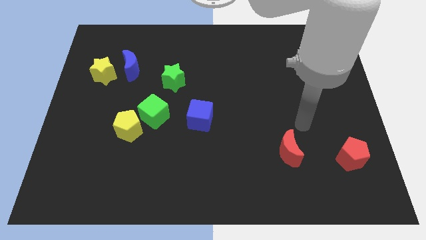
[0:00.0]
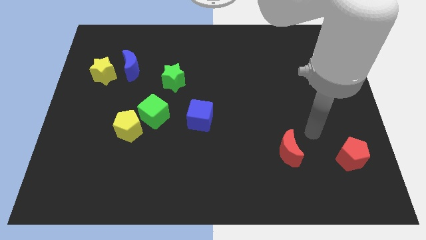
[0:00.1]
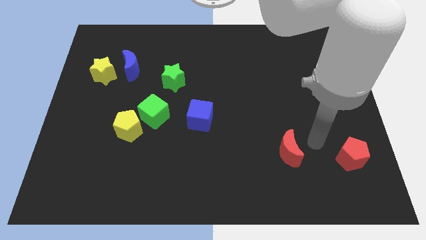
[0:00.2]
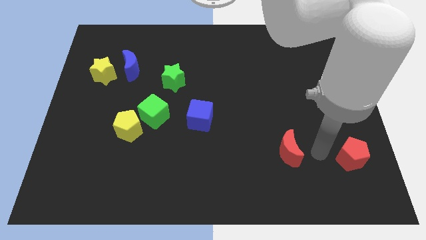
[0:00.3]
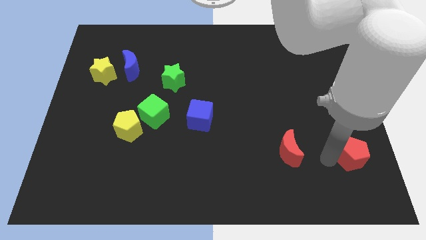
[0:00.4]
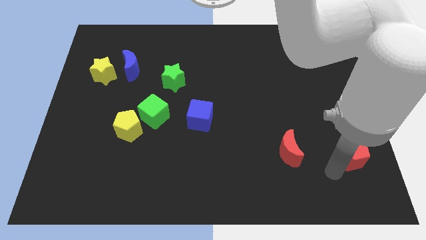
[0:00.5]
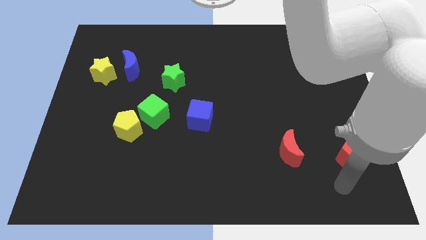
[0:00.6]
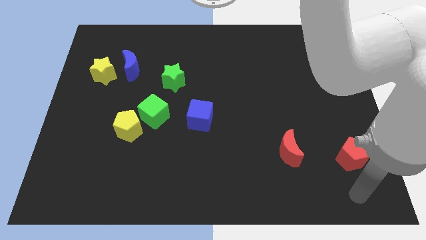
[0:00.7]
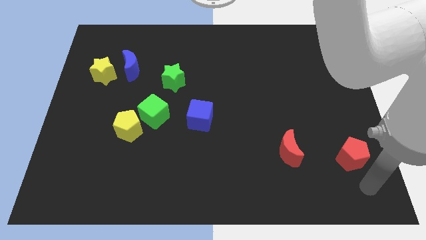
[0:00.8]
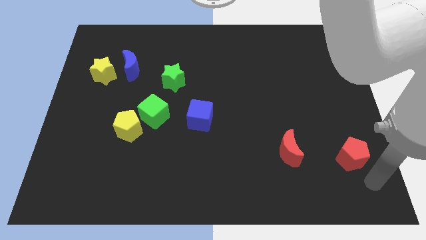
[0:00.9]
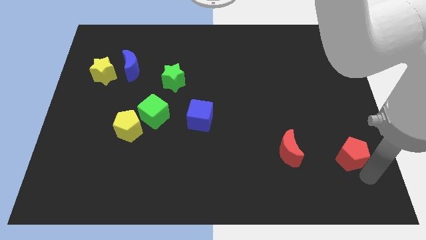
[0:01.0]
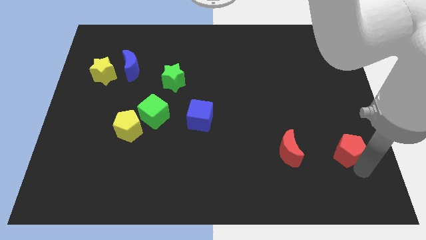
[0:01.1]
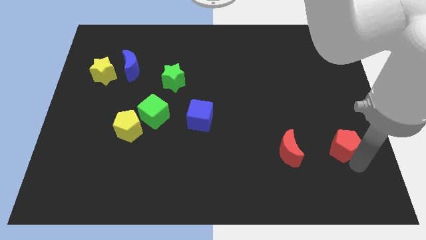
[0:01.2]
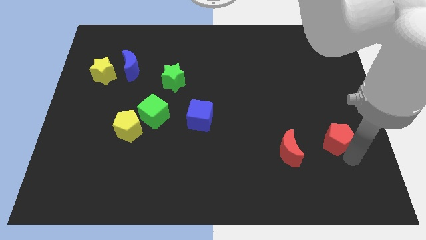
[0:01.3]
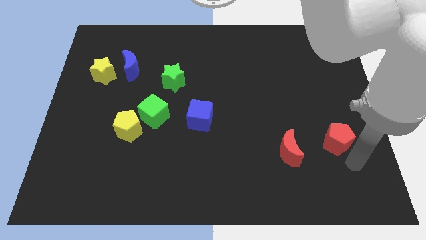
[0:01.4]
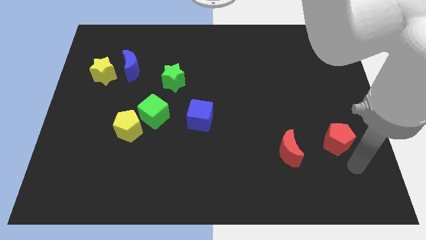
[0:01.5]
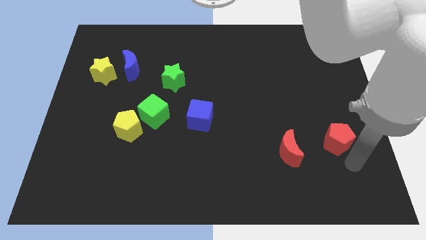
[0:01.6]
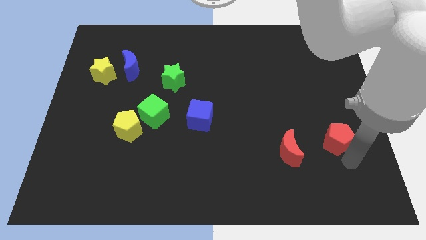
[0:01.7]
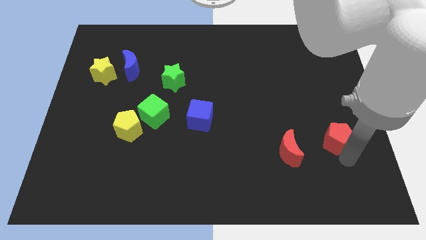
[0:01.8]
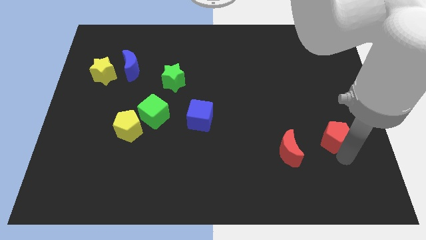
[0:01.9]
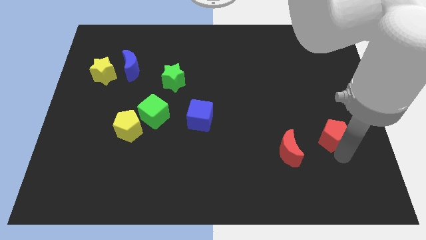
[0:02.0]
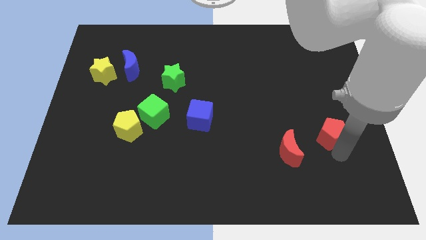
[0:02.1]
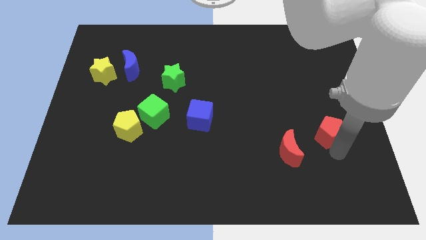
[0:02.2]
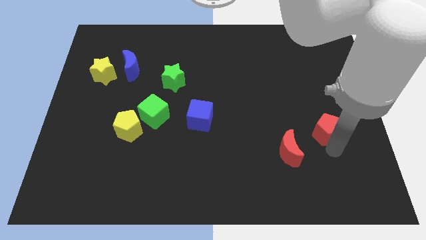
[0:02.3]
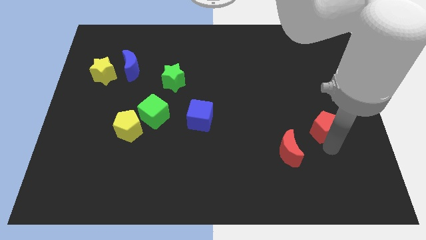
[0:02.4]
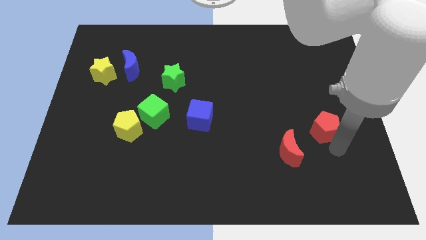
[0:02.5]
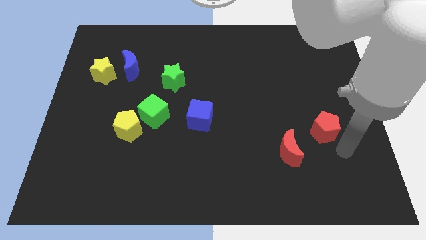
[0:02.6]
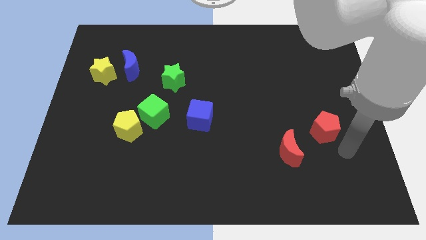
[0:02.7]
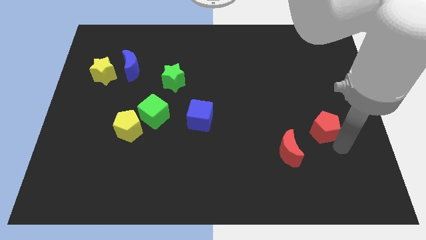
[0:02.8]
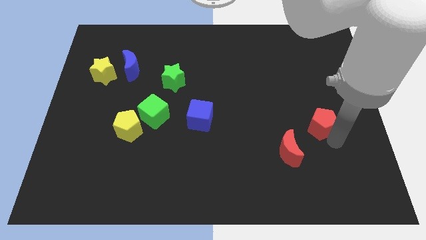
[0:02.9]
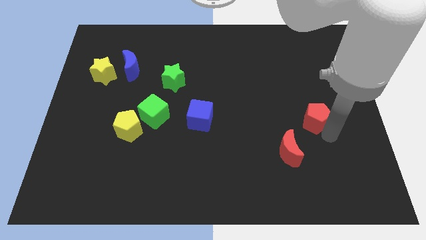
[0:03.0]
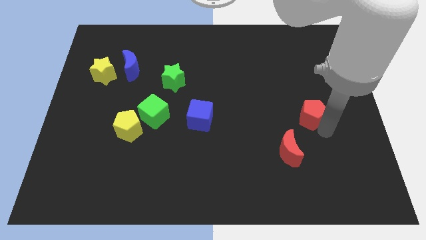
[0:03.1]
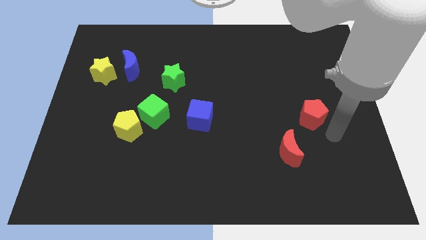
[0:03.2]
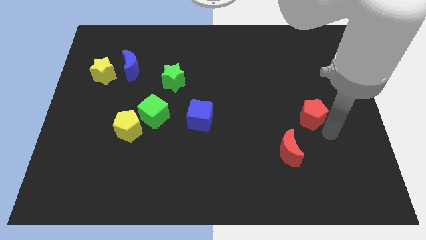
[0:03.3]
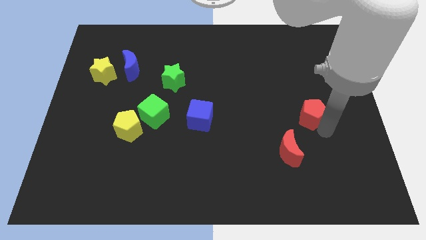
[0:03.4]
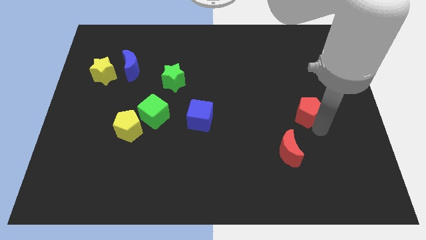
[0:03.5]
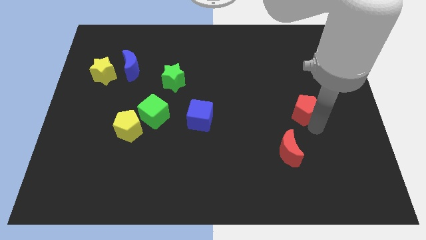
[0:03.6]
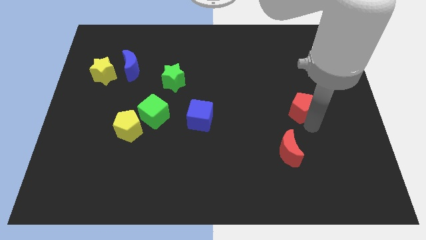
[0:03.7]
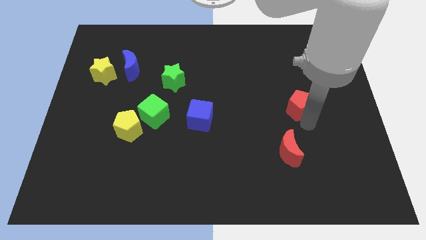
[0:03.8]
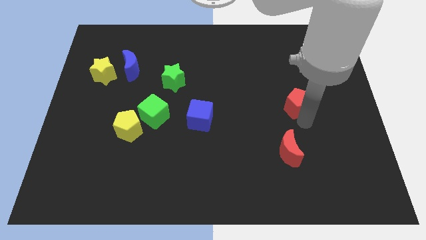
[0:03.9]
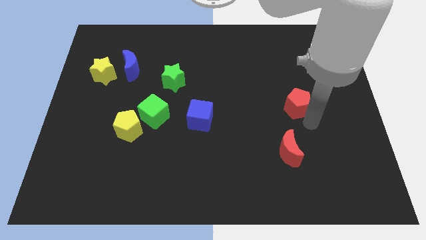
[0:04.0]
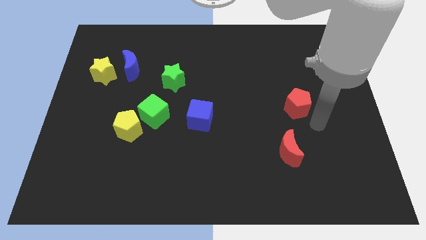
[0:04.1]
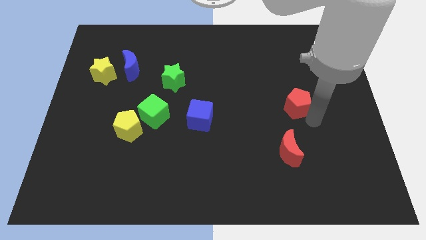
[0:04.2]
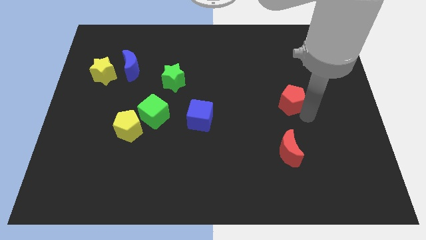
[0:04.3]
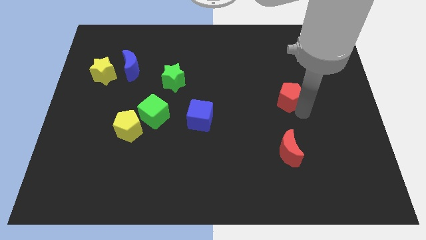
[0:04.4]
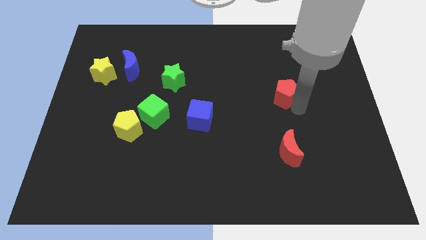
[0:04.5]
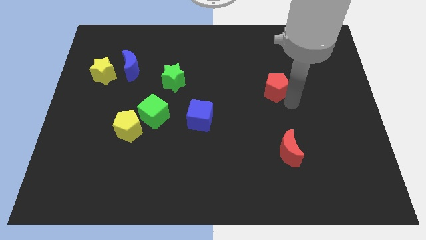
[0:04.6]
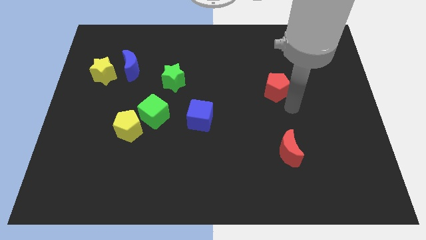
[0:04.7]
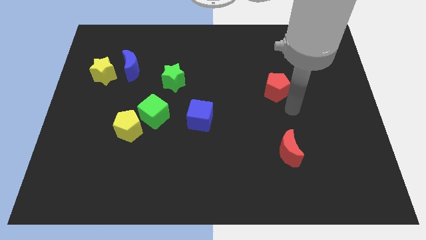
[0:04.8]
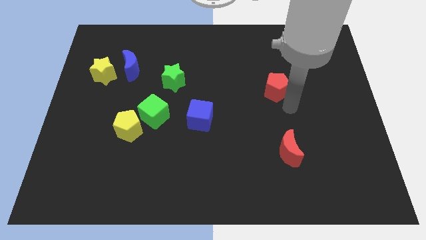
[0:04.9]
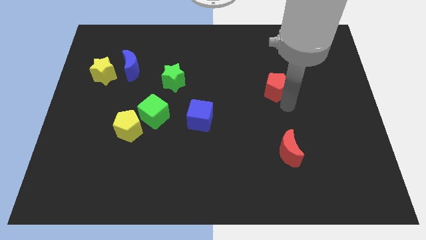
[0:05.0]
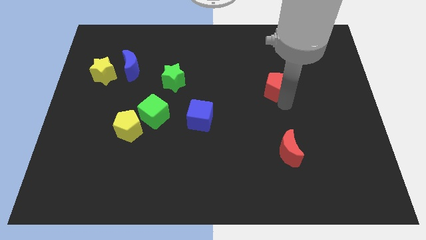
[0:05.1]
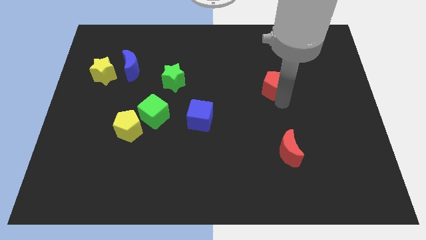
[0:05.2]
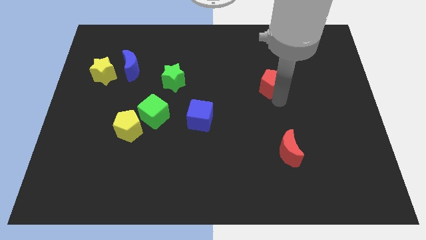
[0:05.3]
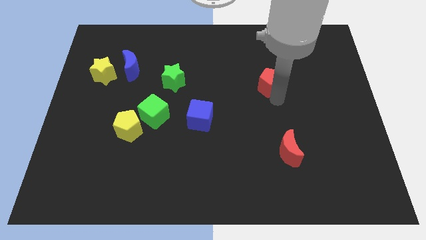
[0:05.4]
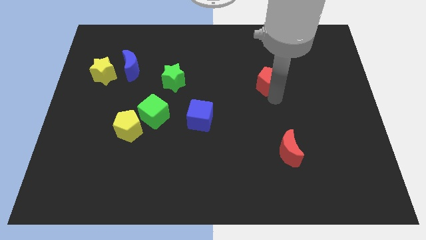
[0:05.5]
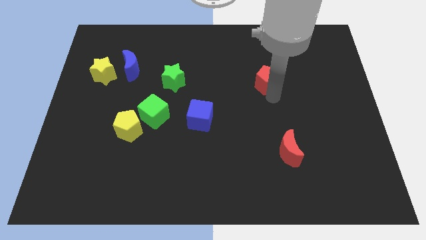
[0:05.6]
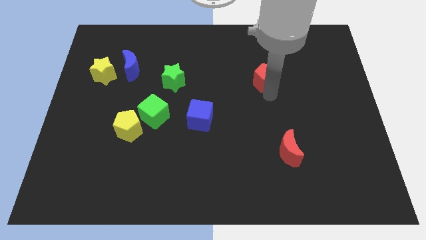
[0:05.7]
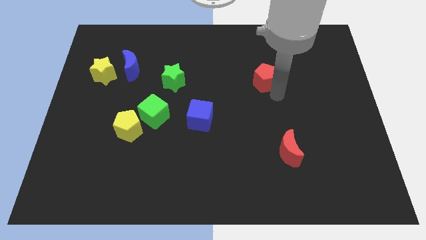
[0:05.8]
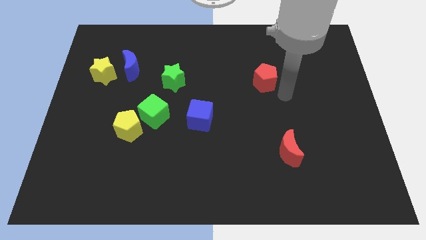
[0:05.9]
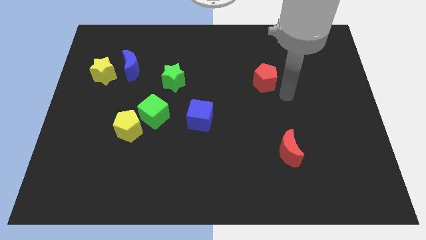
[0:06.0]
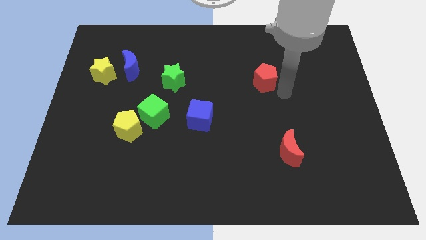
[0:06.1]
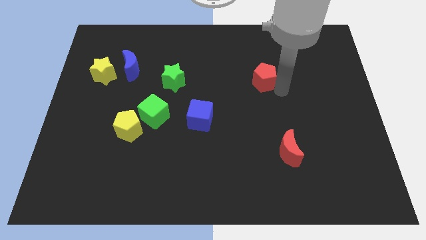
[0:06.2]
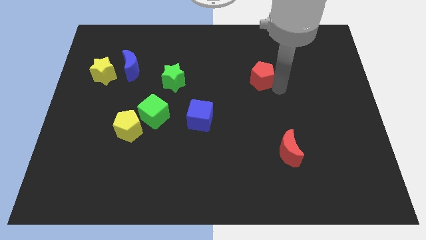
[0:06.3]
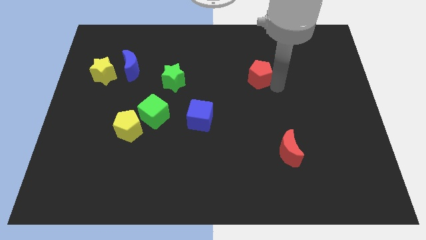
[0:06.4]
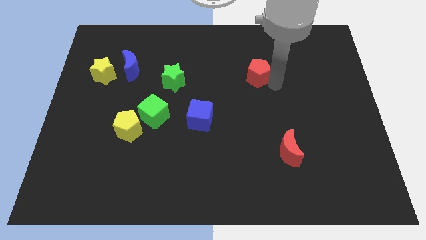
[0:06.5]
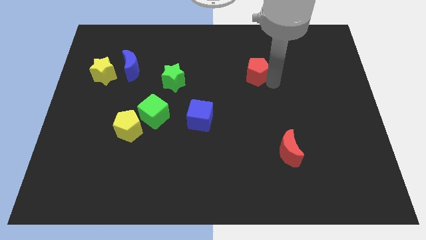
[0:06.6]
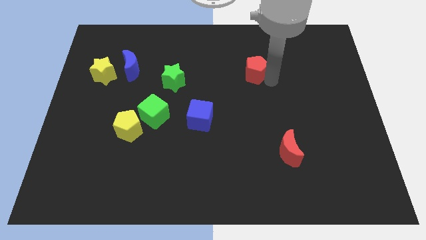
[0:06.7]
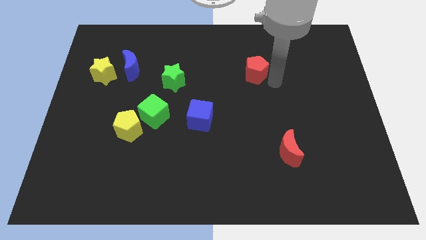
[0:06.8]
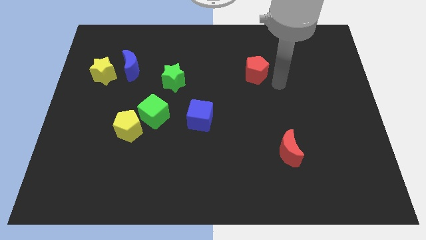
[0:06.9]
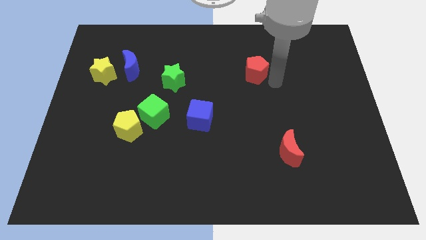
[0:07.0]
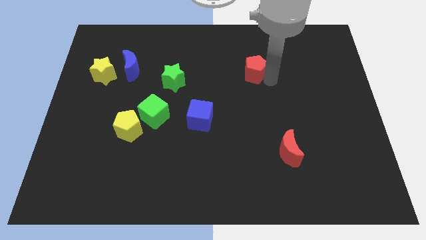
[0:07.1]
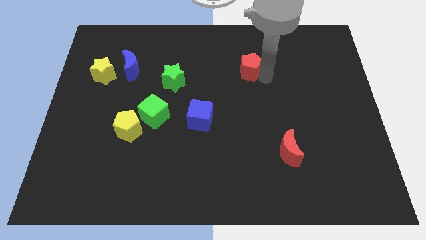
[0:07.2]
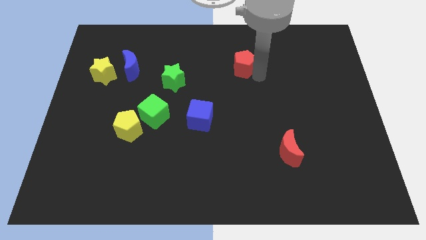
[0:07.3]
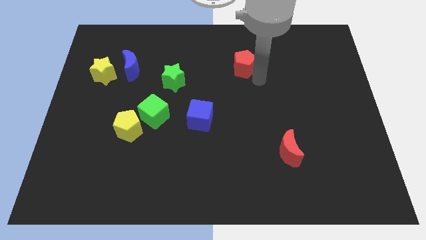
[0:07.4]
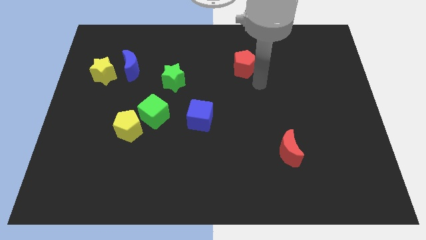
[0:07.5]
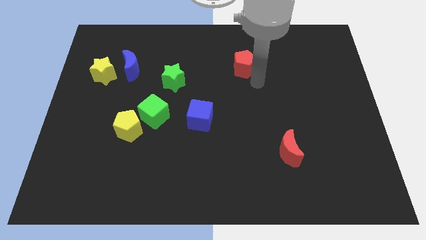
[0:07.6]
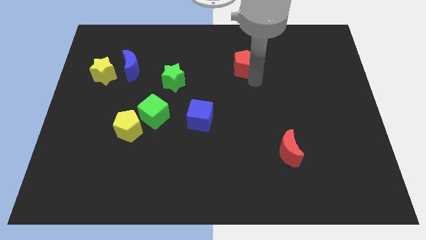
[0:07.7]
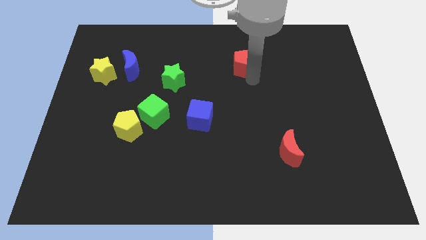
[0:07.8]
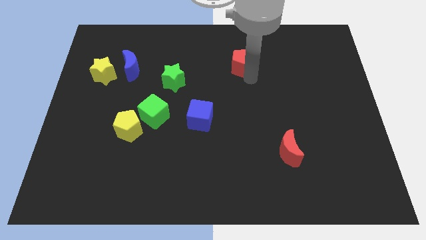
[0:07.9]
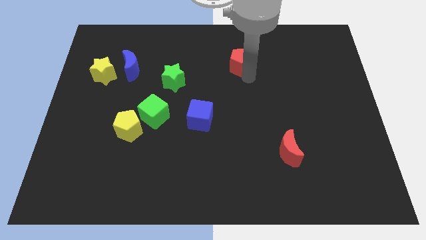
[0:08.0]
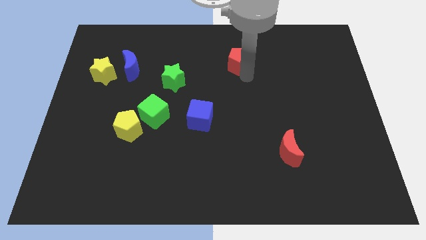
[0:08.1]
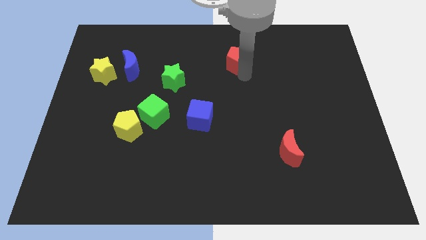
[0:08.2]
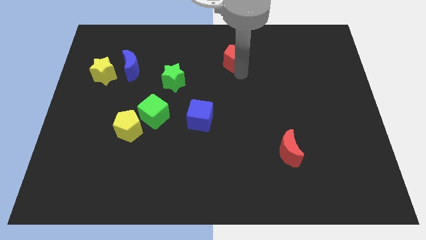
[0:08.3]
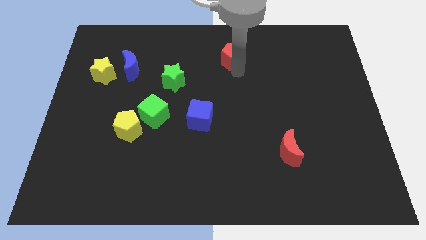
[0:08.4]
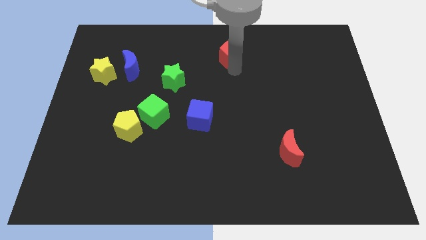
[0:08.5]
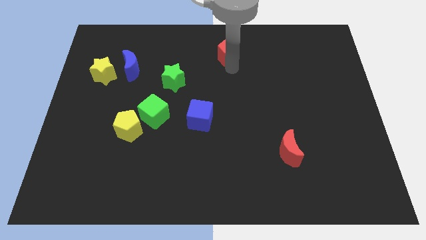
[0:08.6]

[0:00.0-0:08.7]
push the red pentagon to the top
